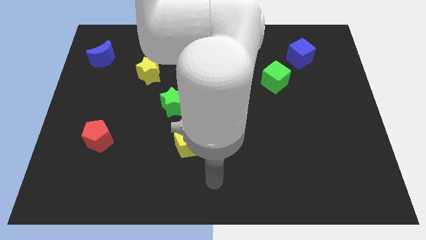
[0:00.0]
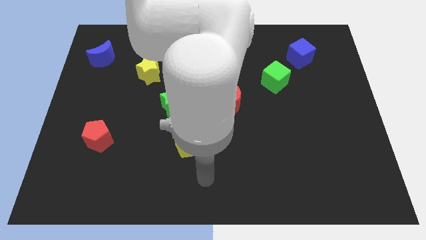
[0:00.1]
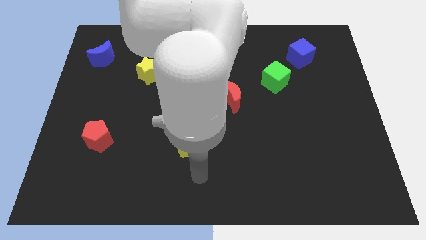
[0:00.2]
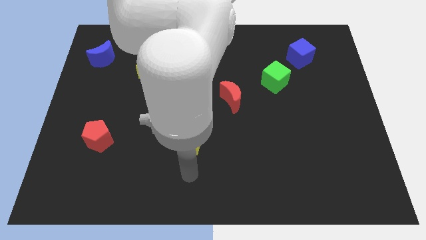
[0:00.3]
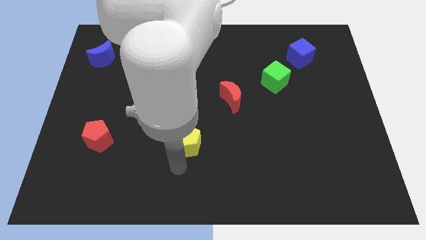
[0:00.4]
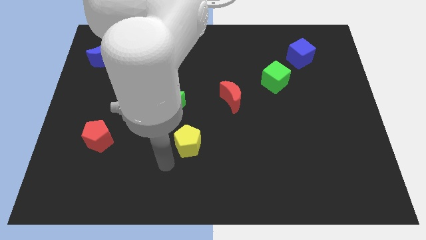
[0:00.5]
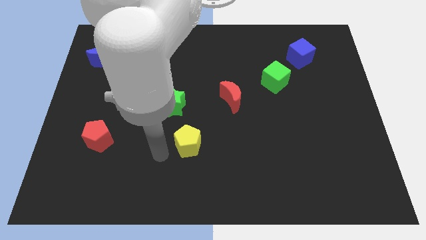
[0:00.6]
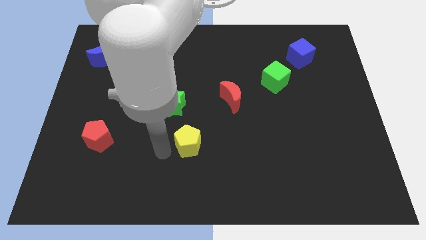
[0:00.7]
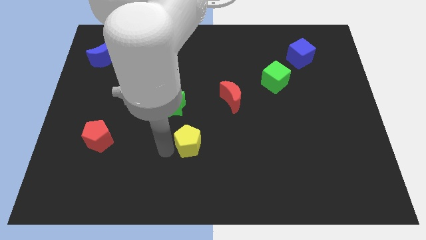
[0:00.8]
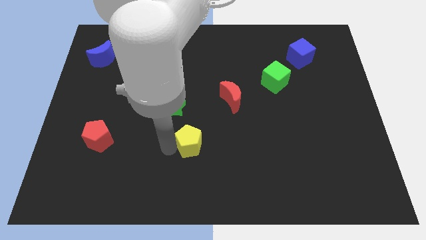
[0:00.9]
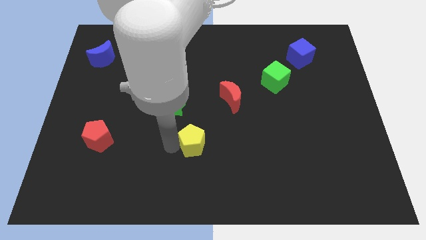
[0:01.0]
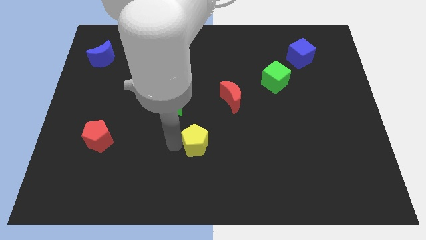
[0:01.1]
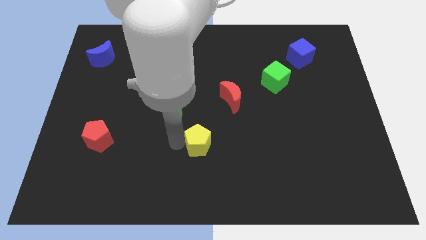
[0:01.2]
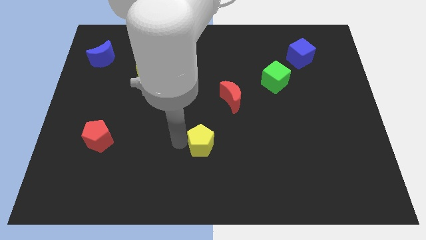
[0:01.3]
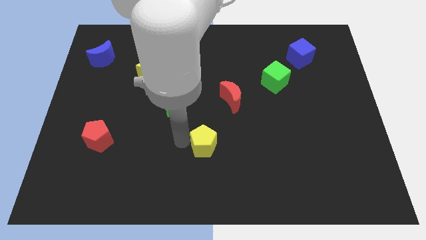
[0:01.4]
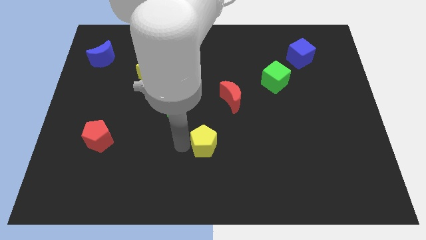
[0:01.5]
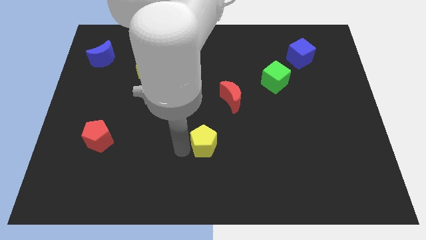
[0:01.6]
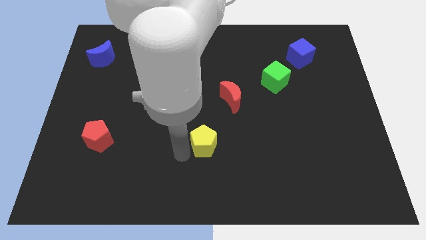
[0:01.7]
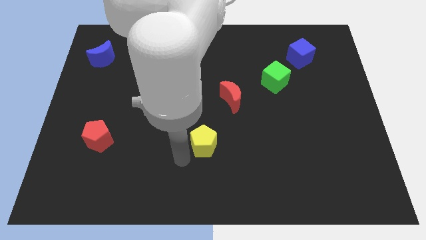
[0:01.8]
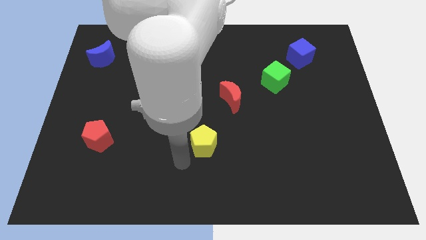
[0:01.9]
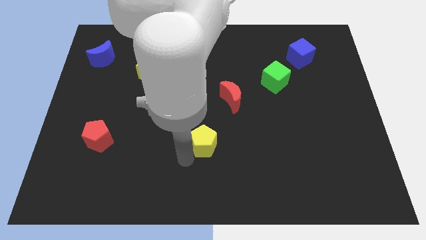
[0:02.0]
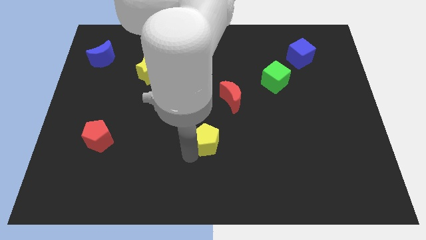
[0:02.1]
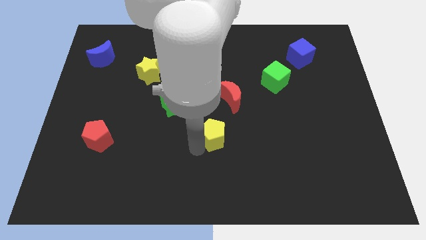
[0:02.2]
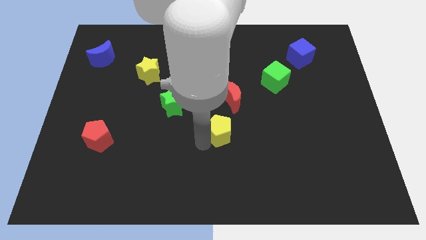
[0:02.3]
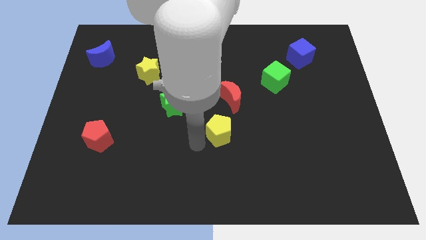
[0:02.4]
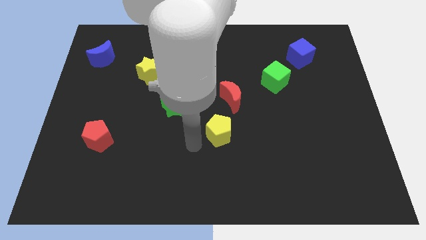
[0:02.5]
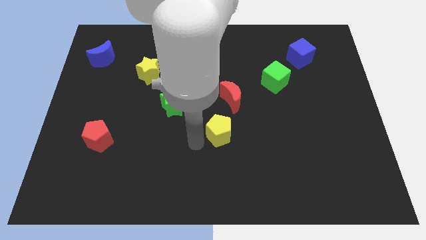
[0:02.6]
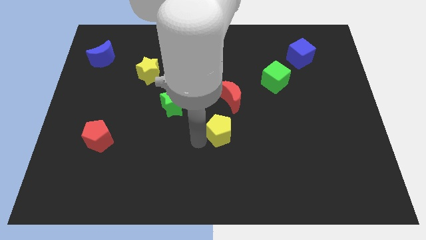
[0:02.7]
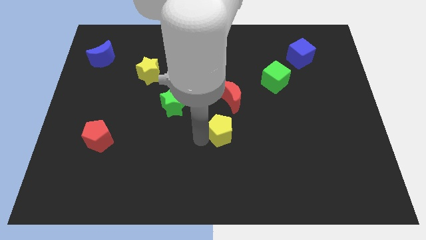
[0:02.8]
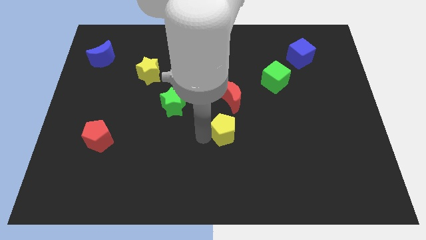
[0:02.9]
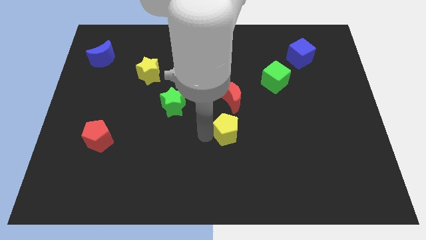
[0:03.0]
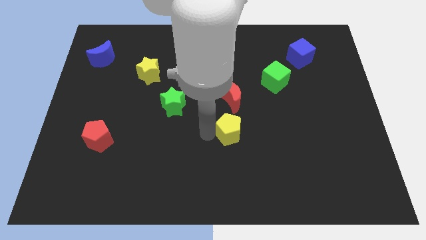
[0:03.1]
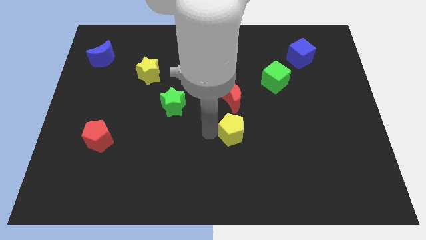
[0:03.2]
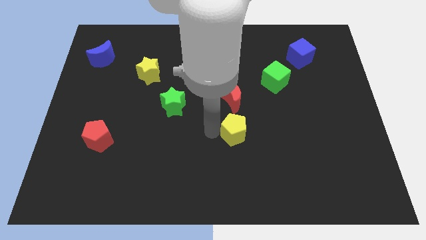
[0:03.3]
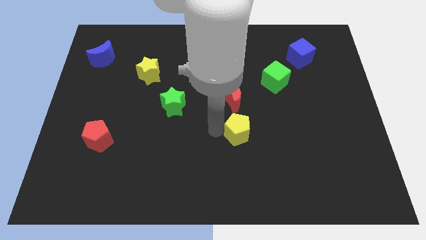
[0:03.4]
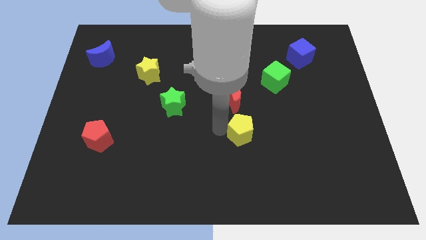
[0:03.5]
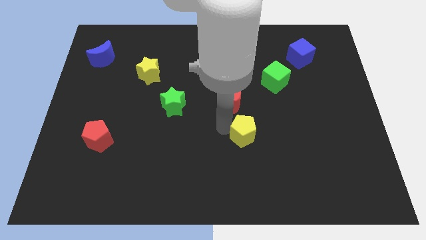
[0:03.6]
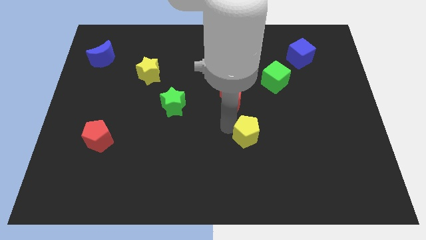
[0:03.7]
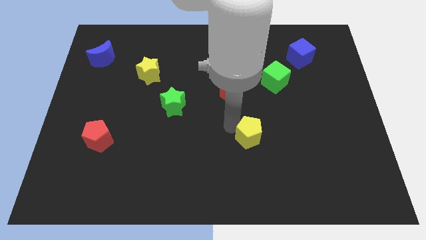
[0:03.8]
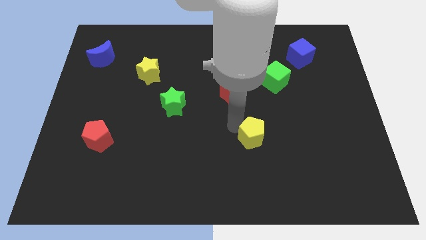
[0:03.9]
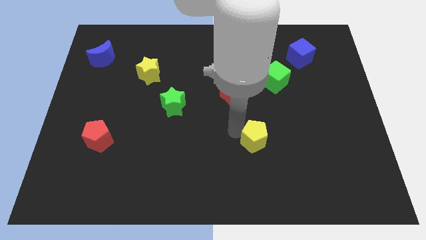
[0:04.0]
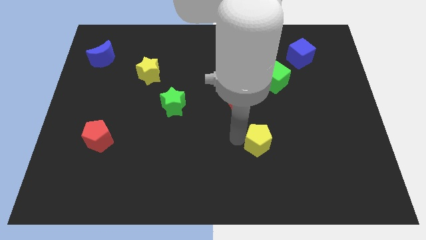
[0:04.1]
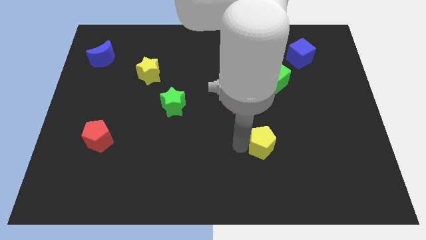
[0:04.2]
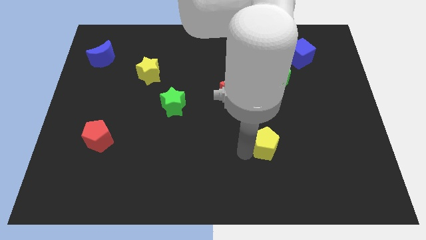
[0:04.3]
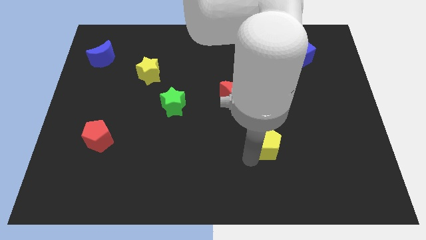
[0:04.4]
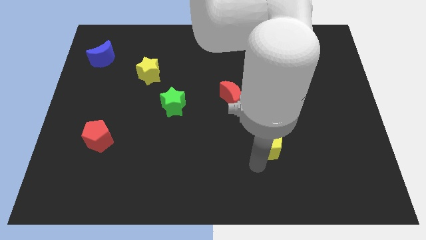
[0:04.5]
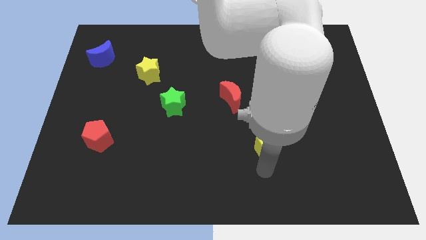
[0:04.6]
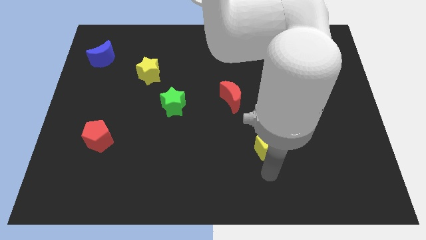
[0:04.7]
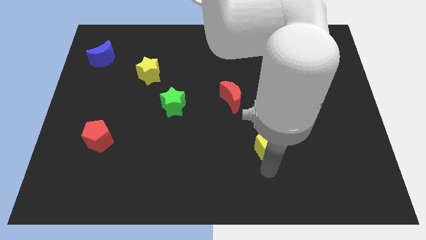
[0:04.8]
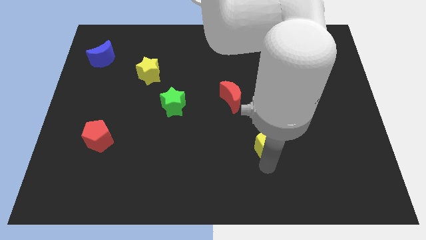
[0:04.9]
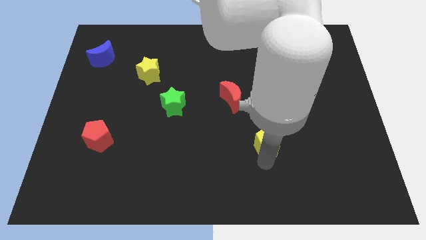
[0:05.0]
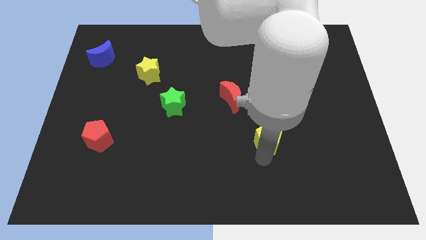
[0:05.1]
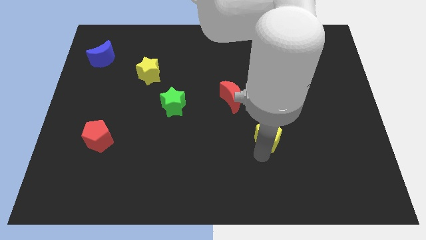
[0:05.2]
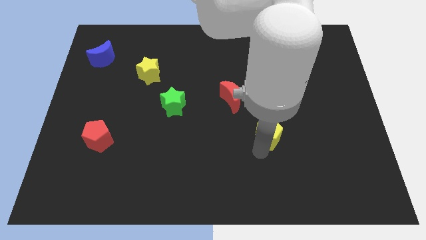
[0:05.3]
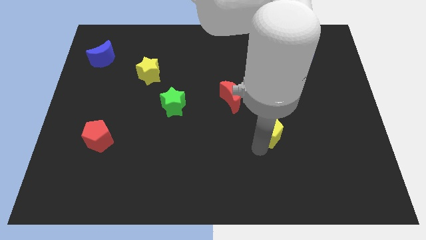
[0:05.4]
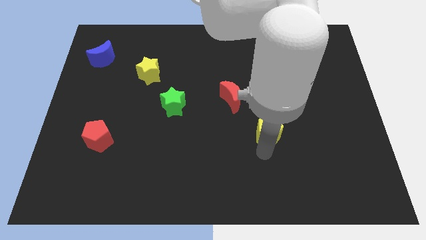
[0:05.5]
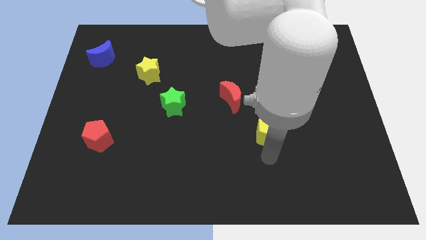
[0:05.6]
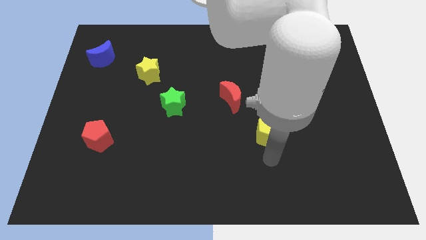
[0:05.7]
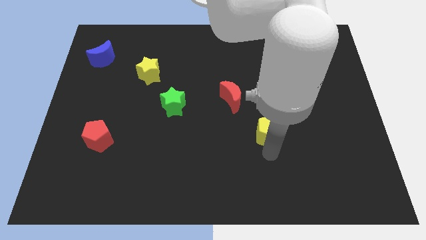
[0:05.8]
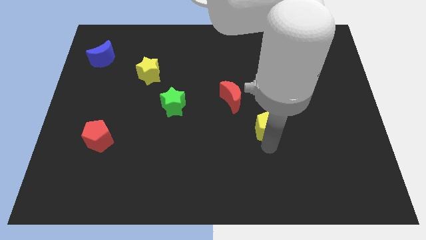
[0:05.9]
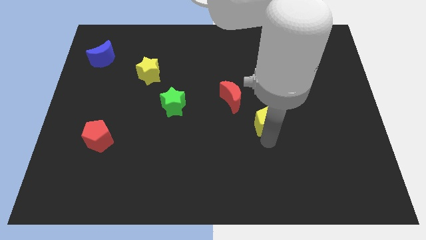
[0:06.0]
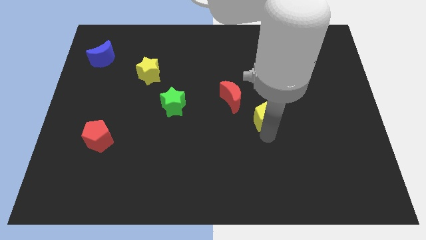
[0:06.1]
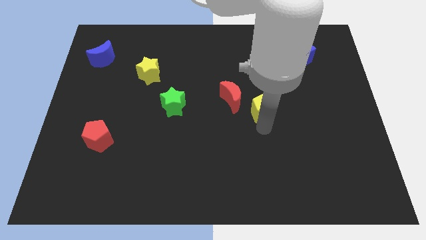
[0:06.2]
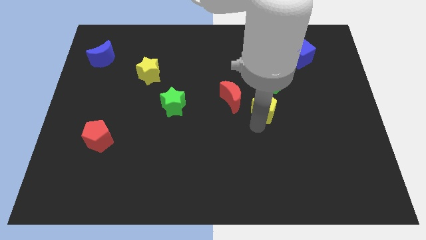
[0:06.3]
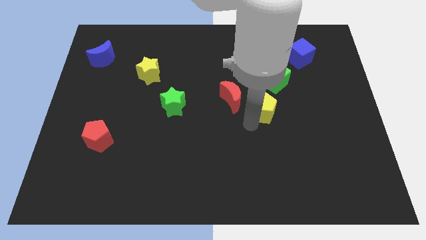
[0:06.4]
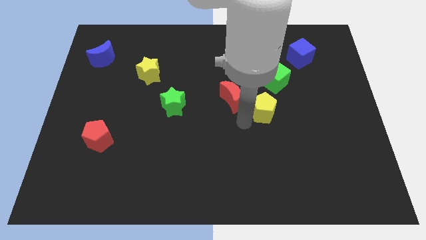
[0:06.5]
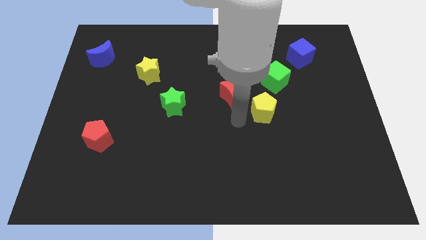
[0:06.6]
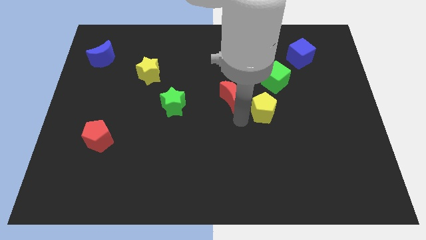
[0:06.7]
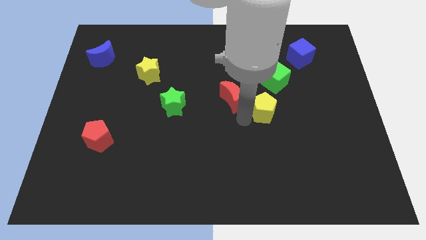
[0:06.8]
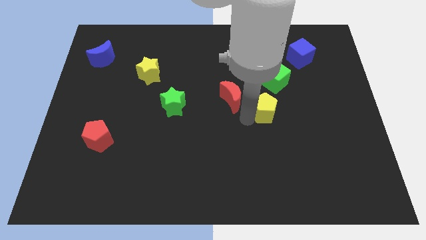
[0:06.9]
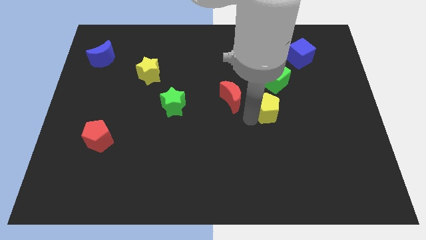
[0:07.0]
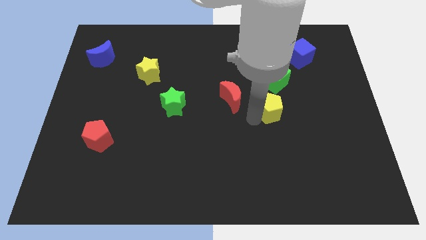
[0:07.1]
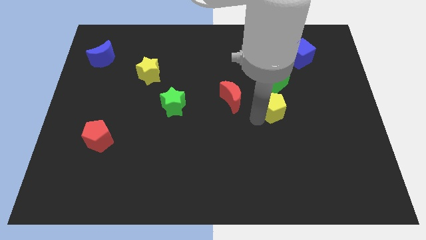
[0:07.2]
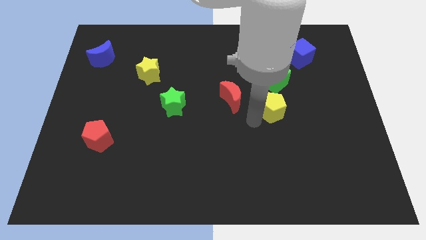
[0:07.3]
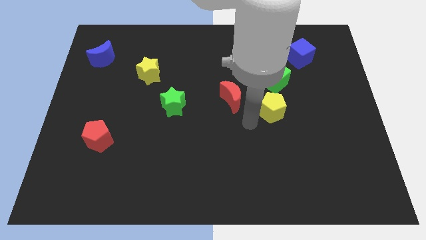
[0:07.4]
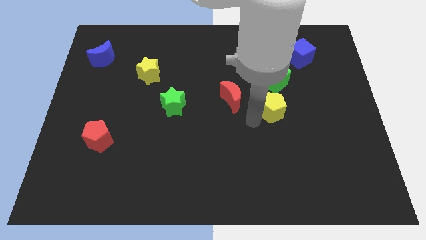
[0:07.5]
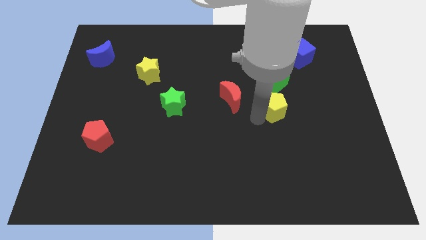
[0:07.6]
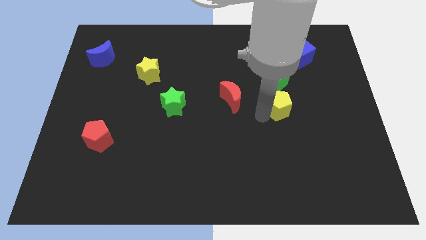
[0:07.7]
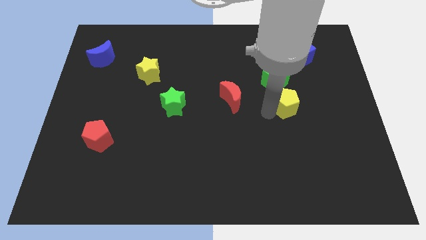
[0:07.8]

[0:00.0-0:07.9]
push the yellow pentagon to the bottom right of the green cube
